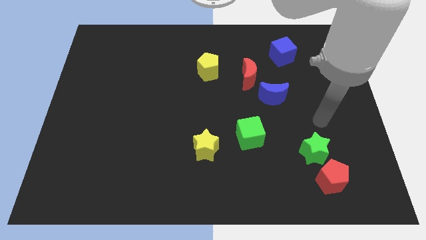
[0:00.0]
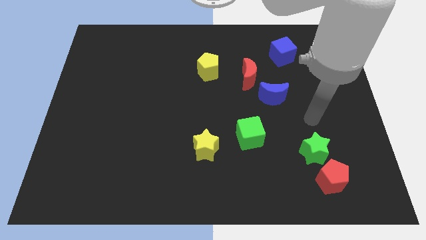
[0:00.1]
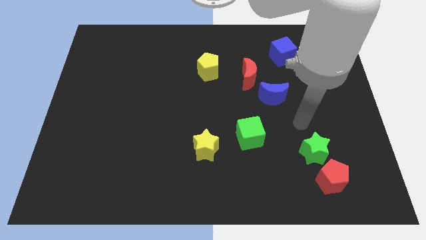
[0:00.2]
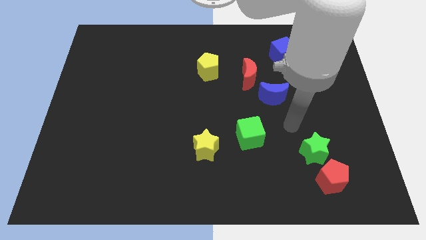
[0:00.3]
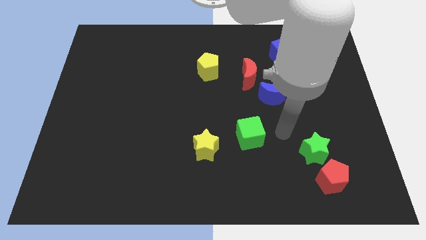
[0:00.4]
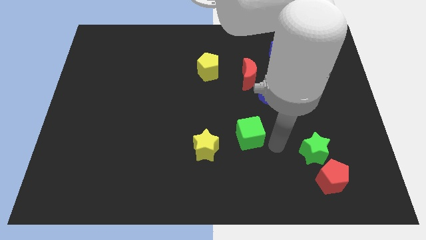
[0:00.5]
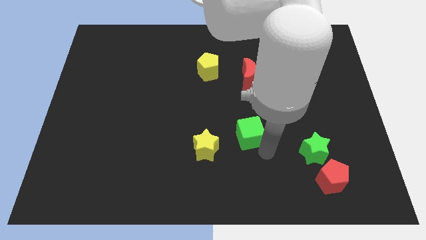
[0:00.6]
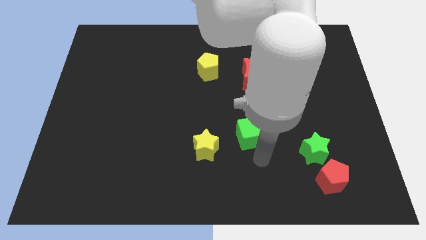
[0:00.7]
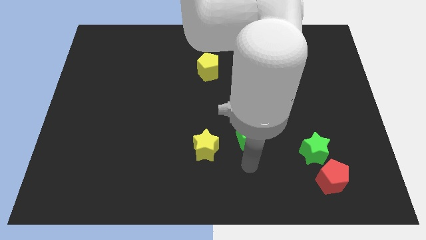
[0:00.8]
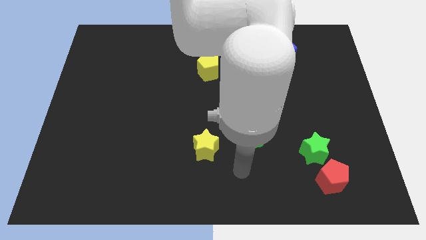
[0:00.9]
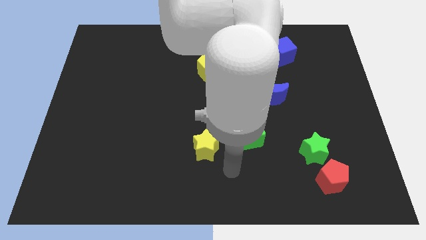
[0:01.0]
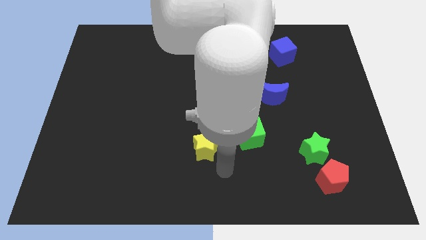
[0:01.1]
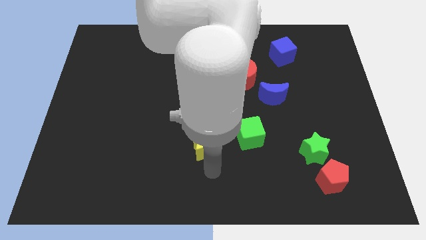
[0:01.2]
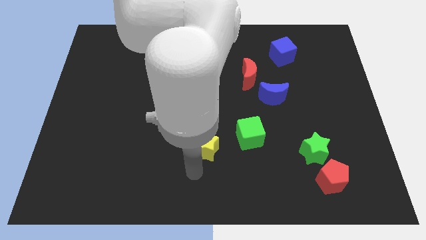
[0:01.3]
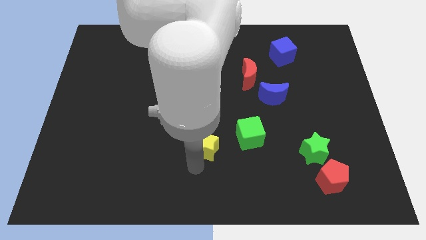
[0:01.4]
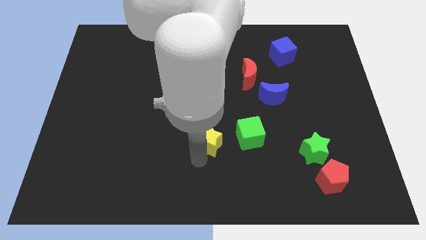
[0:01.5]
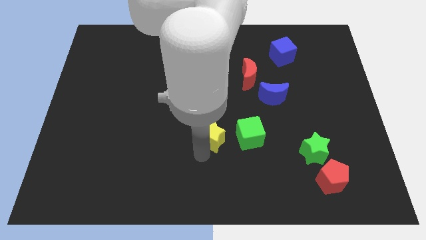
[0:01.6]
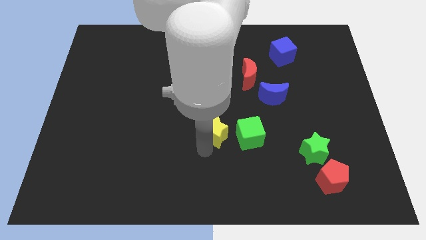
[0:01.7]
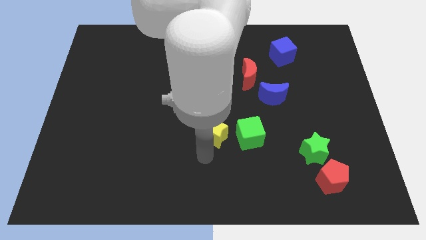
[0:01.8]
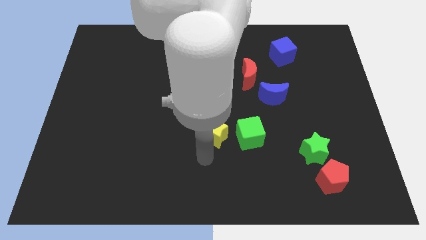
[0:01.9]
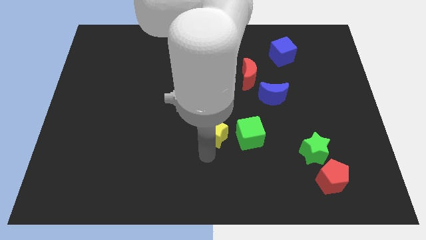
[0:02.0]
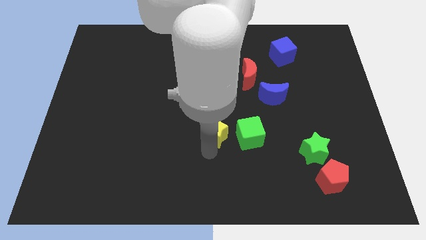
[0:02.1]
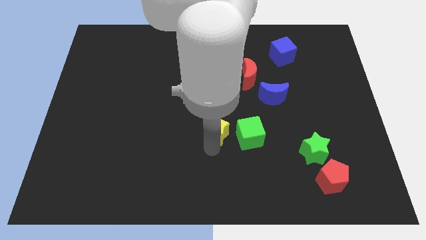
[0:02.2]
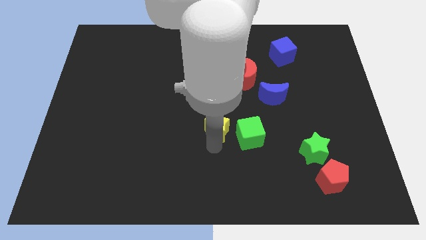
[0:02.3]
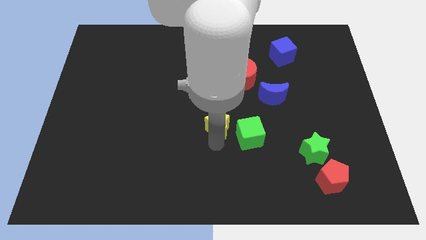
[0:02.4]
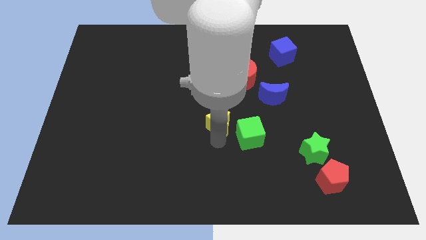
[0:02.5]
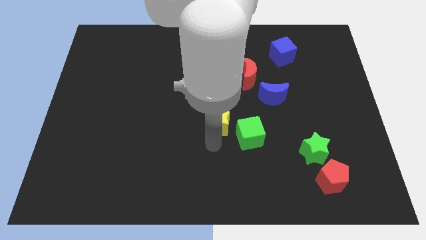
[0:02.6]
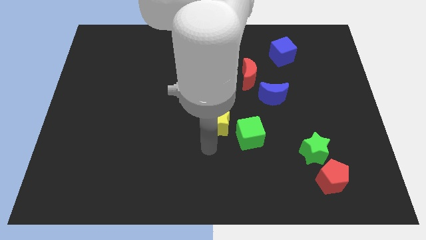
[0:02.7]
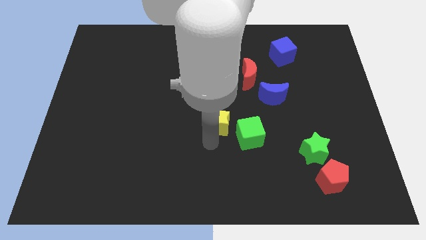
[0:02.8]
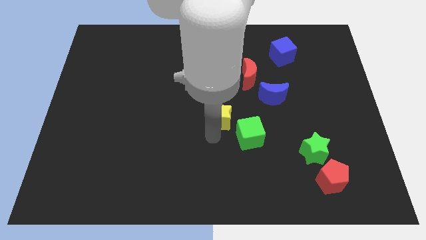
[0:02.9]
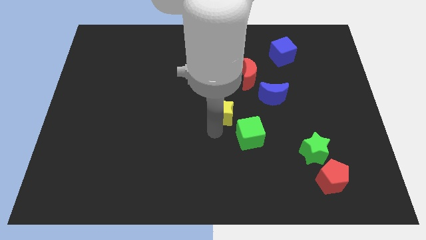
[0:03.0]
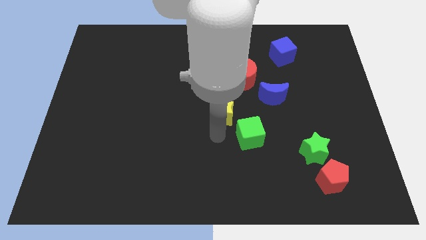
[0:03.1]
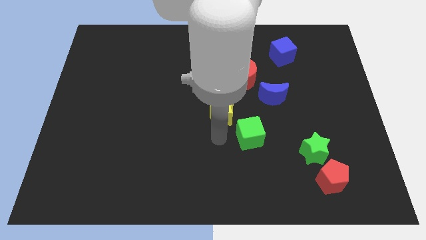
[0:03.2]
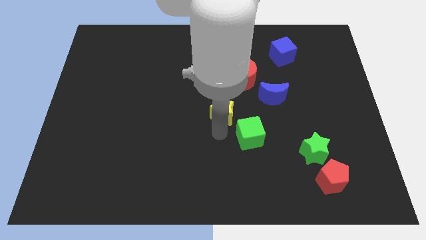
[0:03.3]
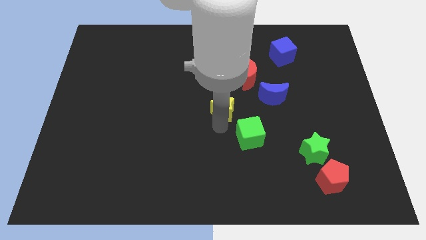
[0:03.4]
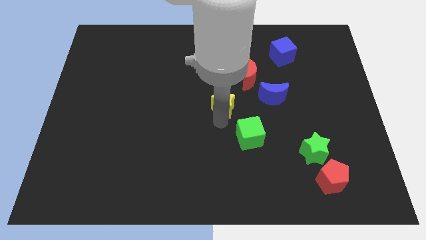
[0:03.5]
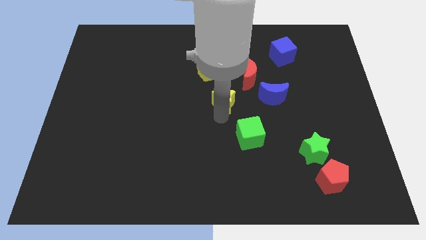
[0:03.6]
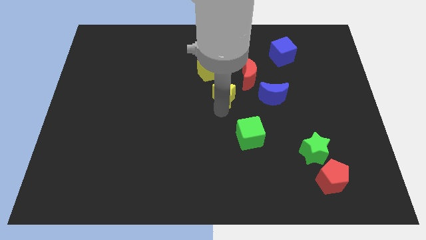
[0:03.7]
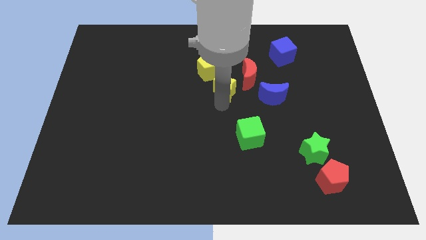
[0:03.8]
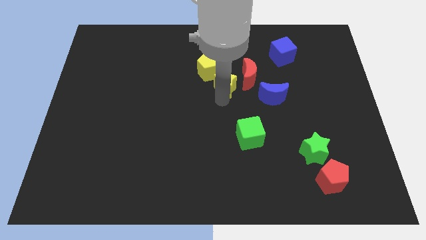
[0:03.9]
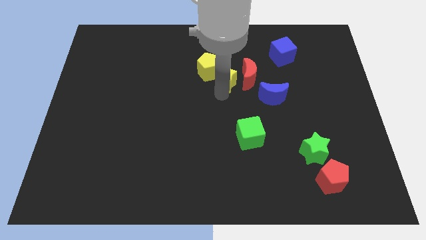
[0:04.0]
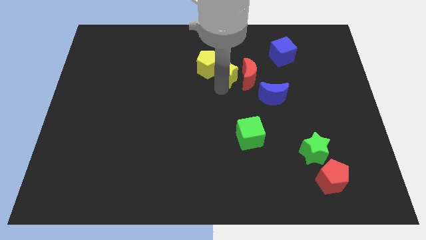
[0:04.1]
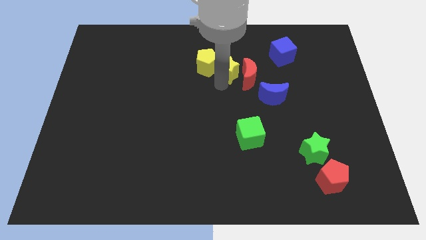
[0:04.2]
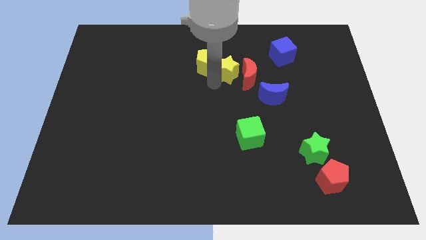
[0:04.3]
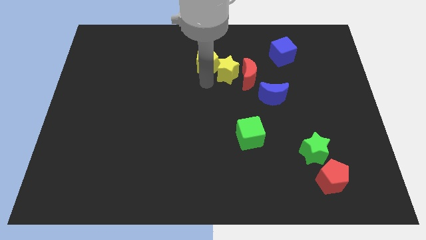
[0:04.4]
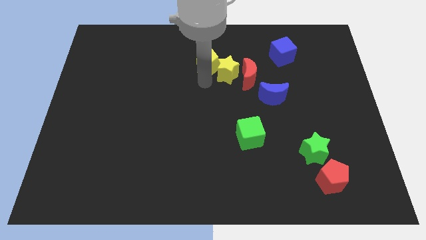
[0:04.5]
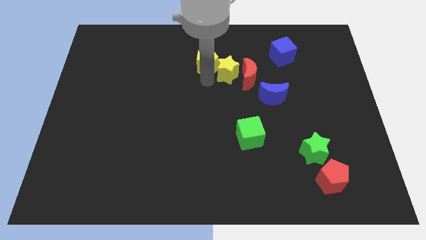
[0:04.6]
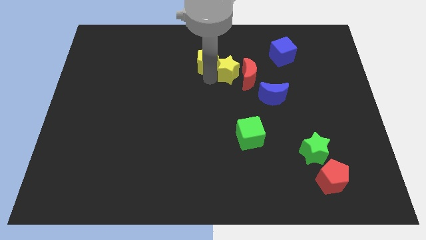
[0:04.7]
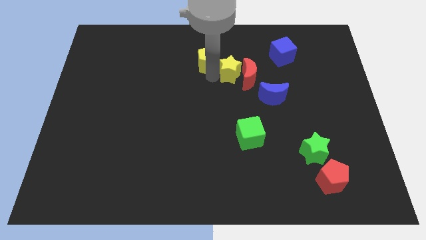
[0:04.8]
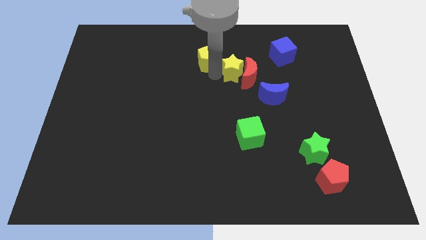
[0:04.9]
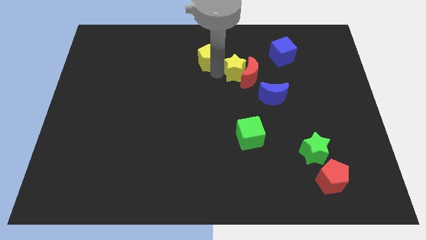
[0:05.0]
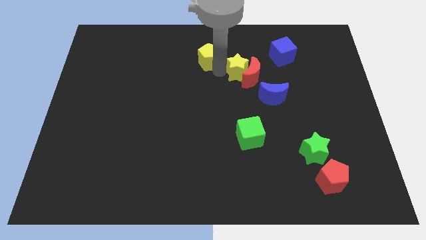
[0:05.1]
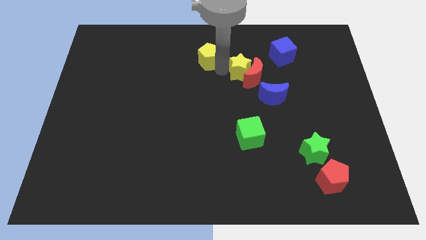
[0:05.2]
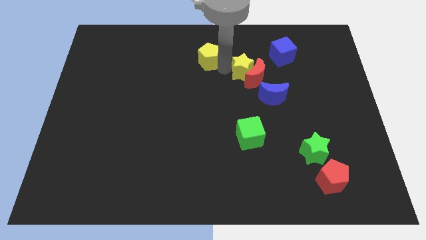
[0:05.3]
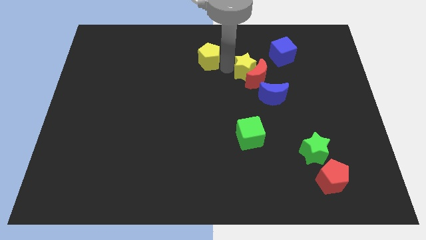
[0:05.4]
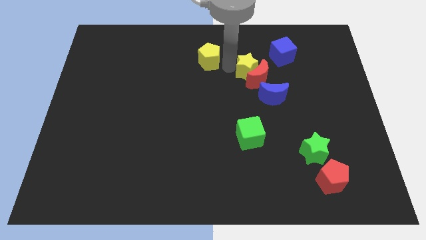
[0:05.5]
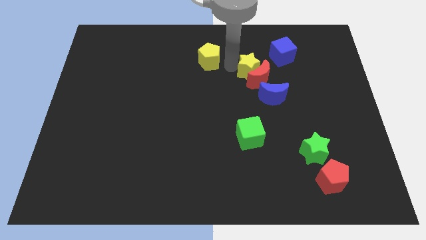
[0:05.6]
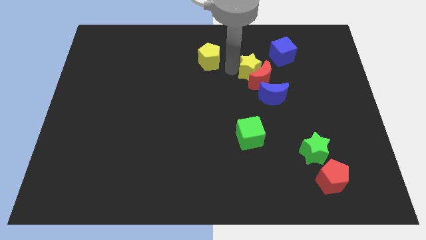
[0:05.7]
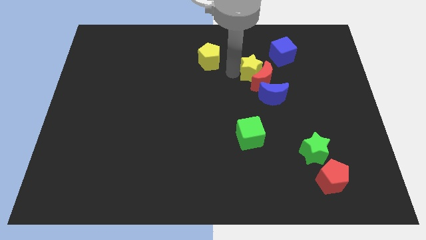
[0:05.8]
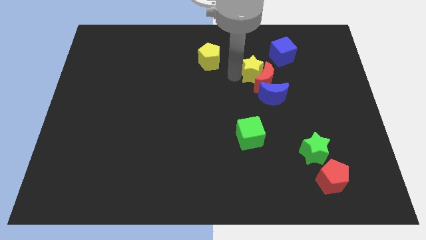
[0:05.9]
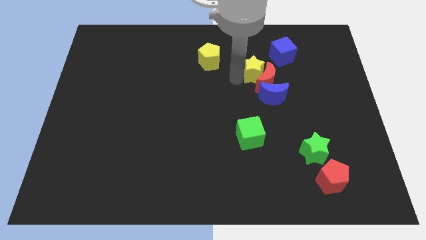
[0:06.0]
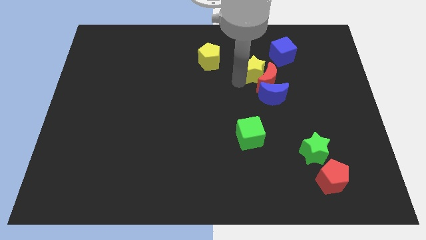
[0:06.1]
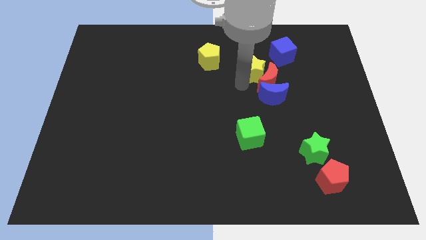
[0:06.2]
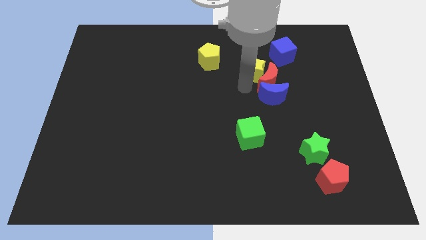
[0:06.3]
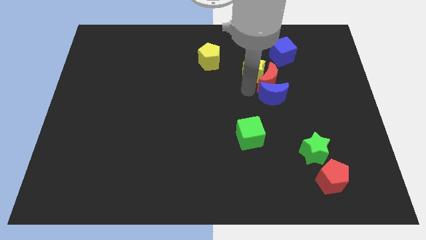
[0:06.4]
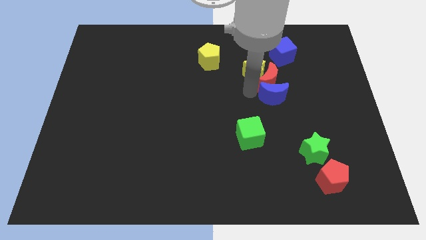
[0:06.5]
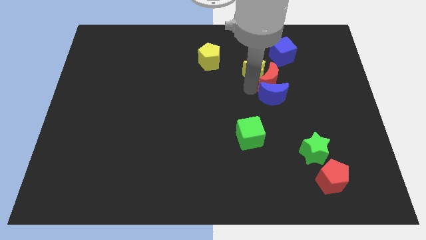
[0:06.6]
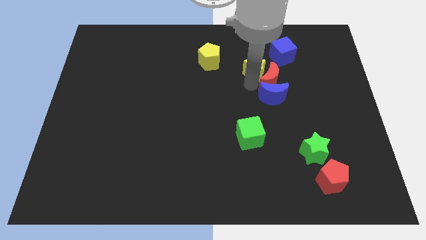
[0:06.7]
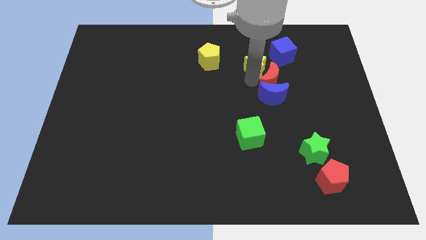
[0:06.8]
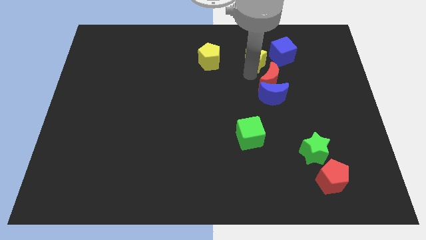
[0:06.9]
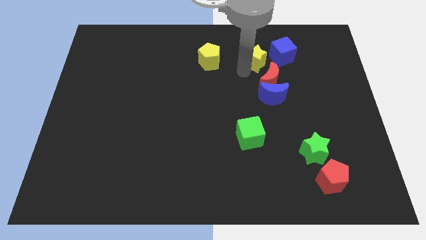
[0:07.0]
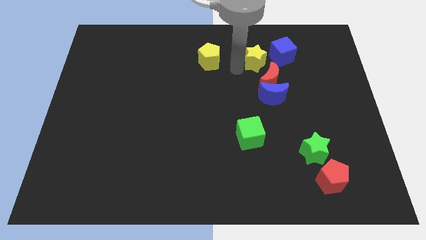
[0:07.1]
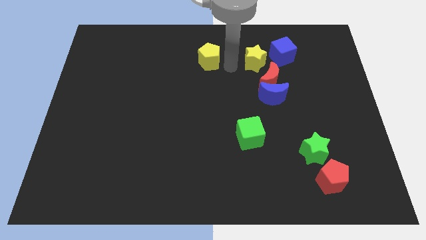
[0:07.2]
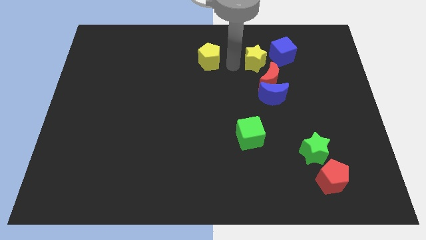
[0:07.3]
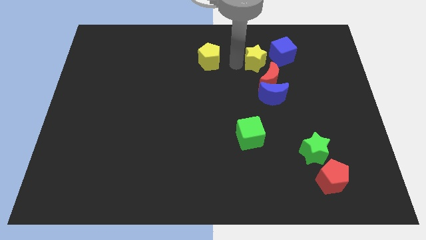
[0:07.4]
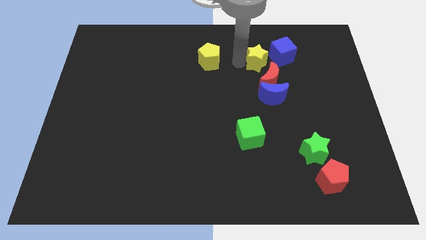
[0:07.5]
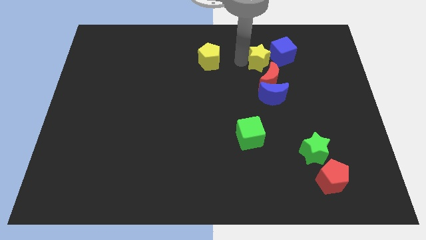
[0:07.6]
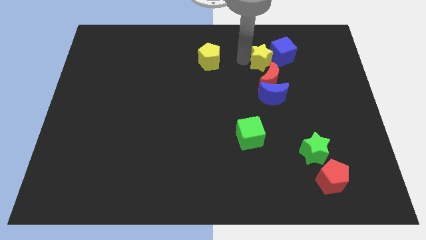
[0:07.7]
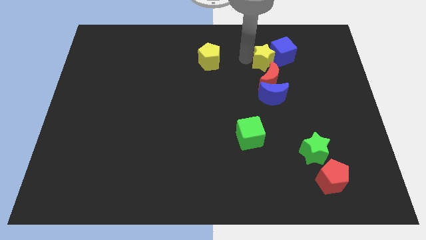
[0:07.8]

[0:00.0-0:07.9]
push the yellow star to the blue cube

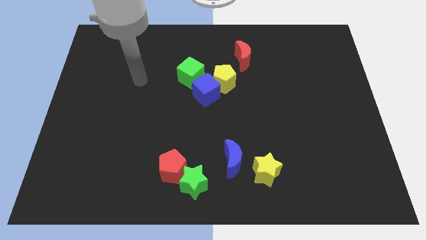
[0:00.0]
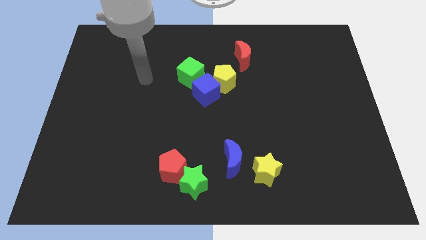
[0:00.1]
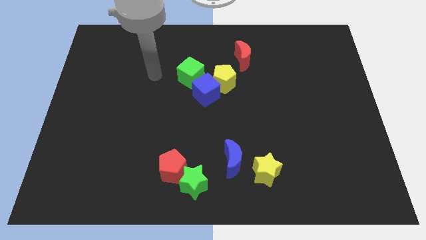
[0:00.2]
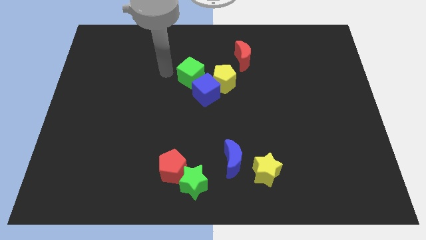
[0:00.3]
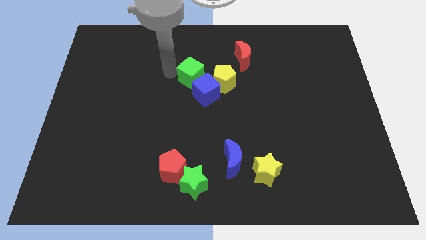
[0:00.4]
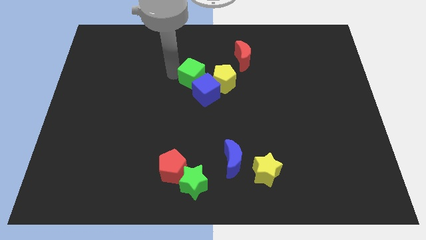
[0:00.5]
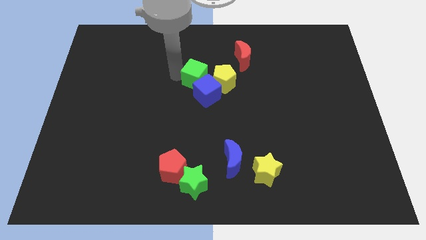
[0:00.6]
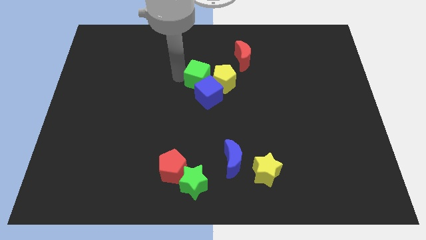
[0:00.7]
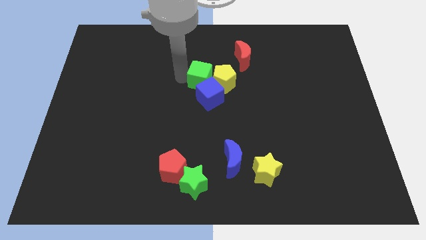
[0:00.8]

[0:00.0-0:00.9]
put the green cube next to the yellow pentagon
